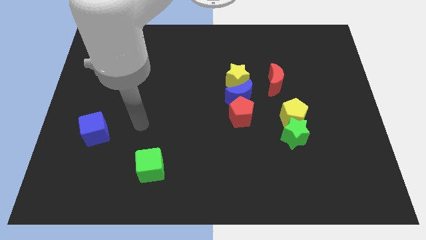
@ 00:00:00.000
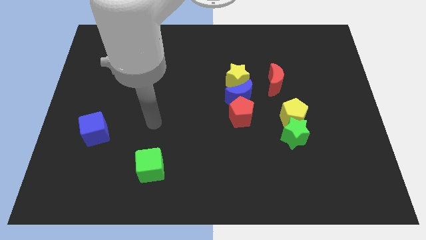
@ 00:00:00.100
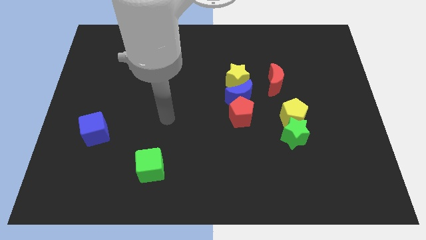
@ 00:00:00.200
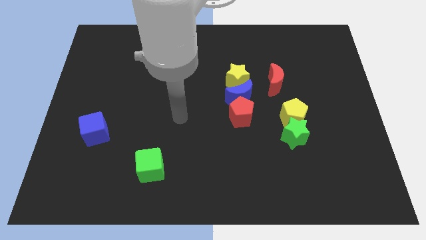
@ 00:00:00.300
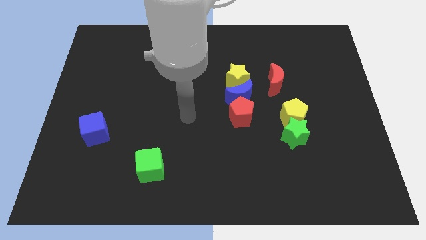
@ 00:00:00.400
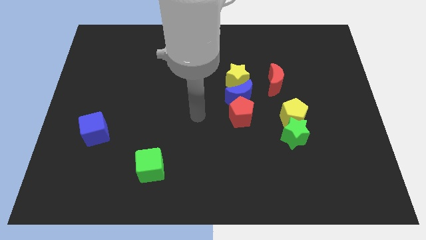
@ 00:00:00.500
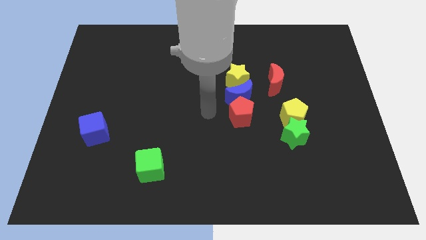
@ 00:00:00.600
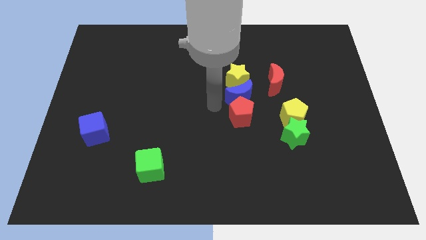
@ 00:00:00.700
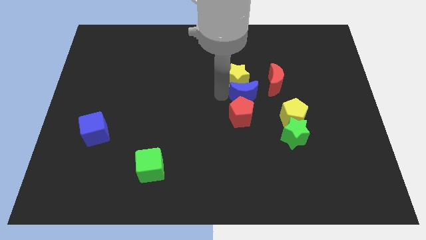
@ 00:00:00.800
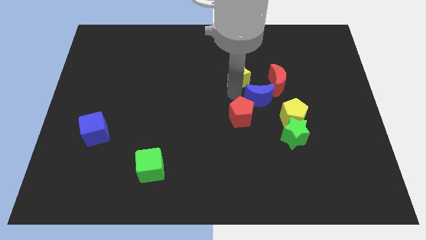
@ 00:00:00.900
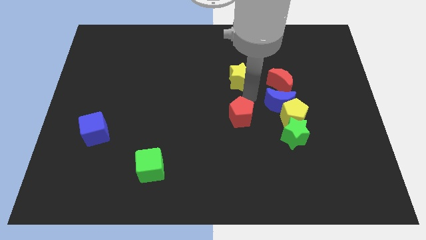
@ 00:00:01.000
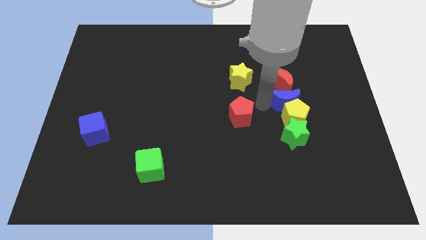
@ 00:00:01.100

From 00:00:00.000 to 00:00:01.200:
pull the red pentagon apart from the blue moon

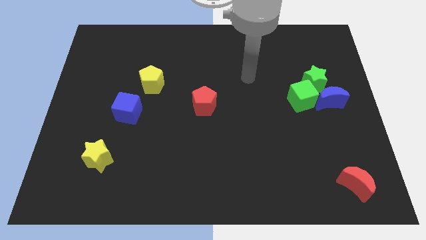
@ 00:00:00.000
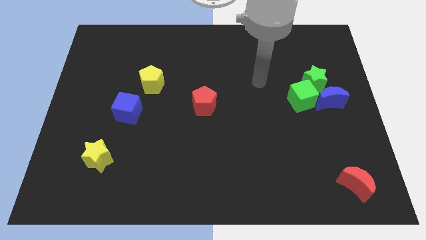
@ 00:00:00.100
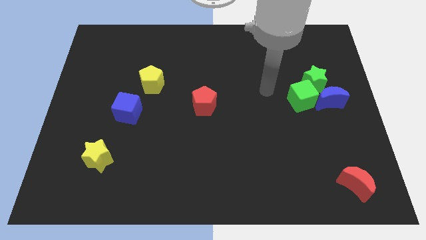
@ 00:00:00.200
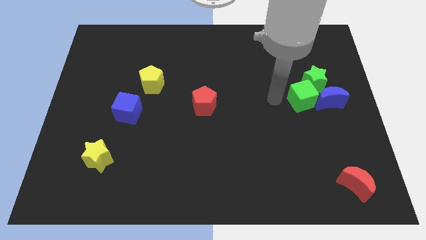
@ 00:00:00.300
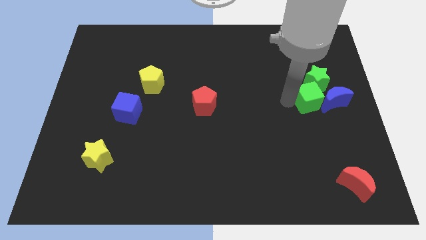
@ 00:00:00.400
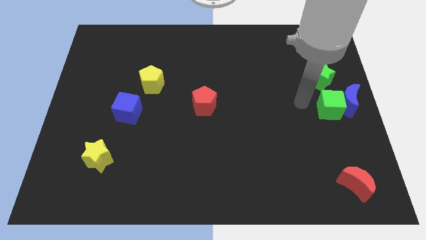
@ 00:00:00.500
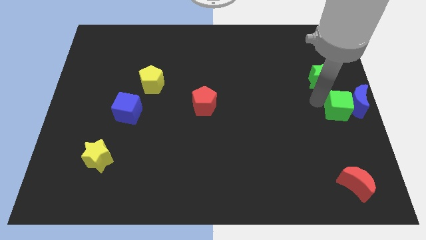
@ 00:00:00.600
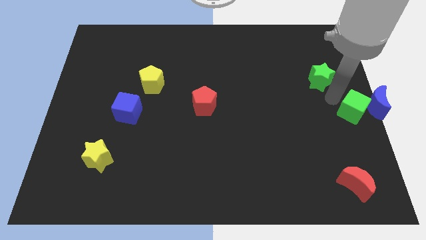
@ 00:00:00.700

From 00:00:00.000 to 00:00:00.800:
move the green star away from the green cube and blue moon

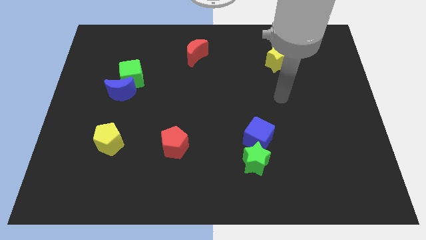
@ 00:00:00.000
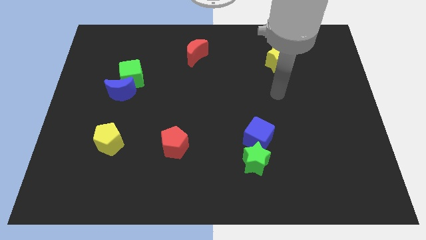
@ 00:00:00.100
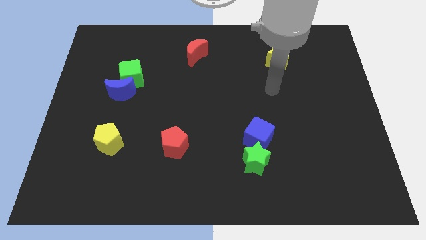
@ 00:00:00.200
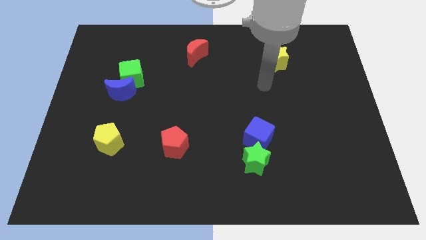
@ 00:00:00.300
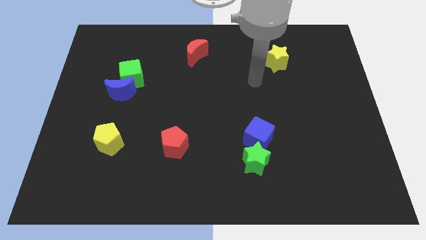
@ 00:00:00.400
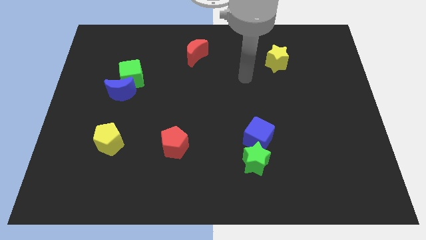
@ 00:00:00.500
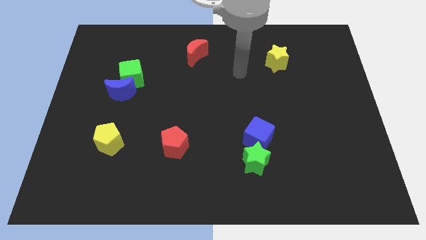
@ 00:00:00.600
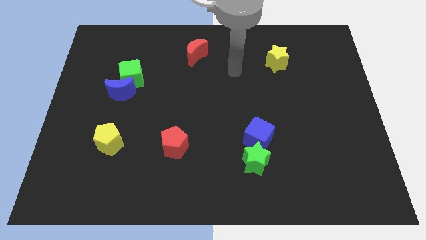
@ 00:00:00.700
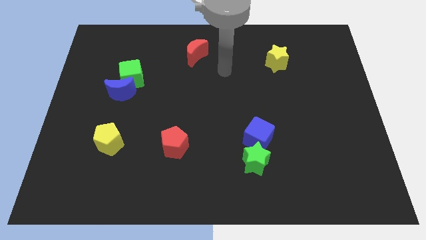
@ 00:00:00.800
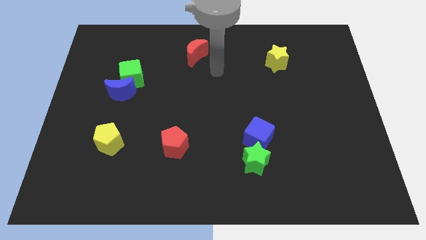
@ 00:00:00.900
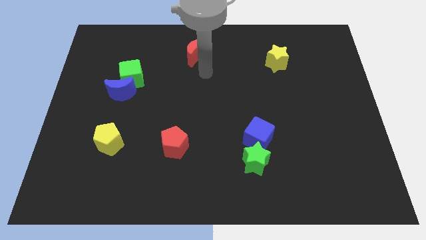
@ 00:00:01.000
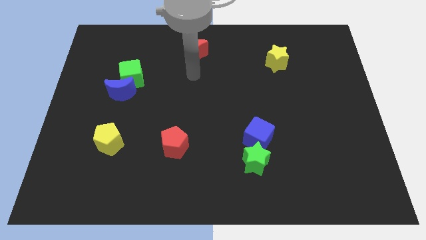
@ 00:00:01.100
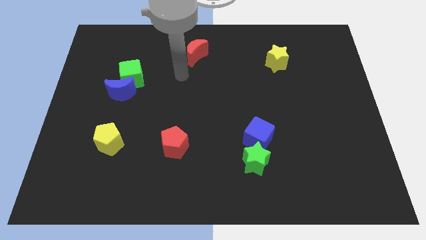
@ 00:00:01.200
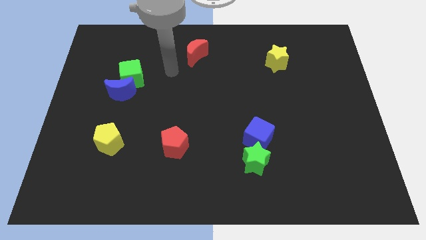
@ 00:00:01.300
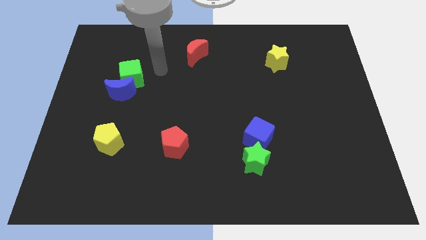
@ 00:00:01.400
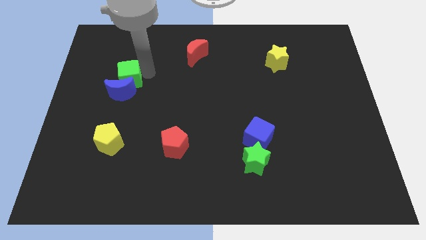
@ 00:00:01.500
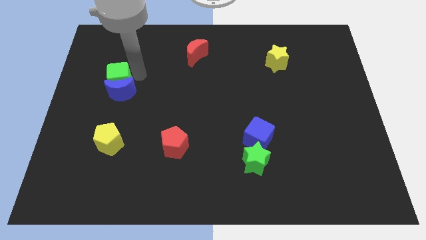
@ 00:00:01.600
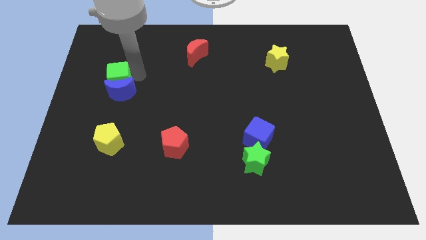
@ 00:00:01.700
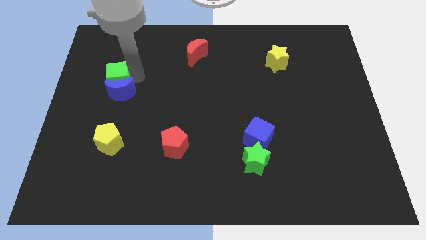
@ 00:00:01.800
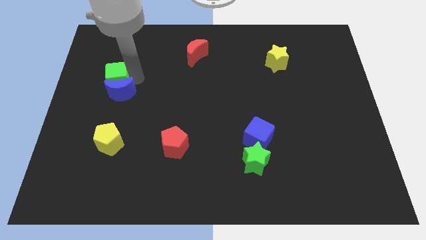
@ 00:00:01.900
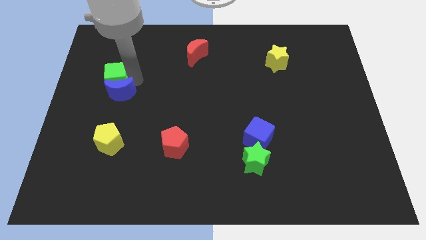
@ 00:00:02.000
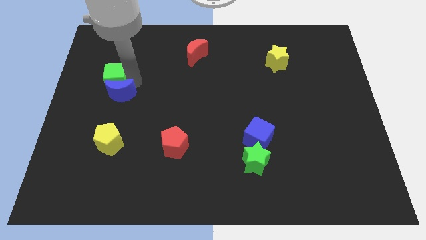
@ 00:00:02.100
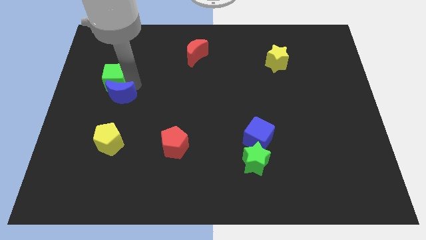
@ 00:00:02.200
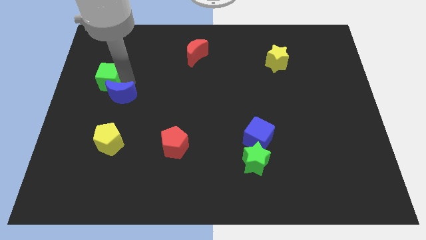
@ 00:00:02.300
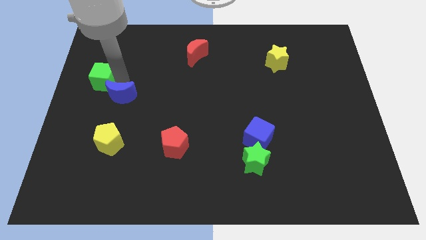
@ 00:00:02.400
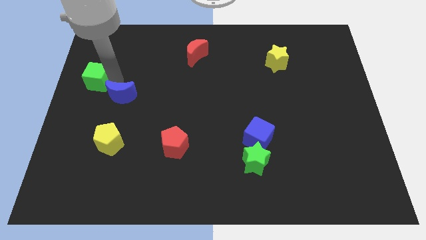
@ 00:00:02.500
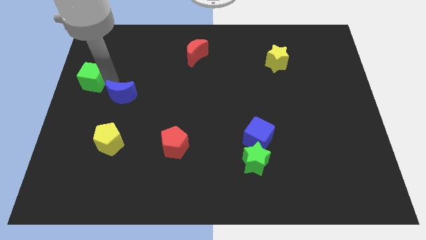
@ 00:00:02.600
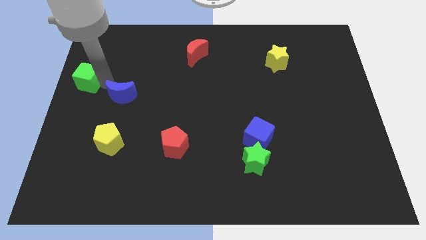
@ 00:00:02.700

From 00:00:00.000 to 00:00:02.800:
move the blue moon away from the green cube

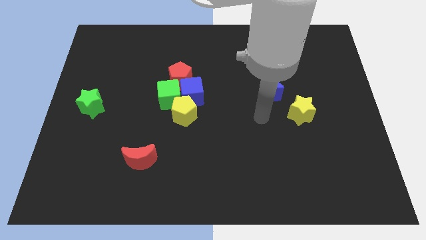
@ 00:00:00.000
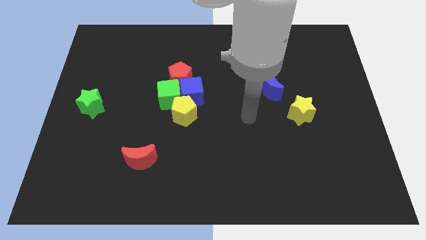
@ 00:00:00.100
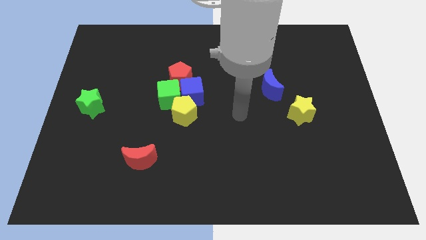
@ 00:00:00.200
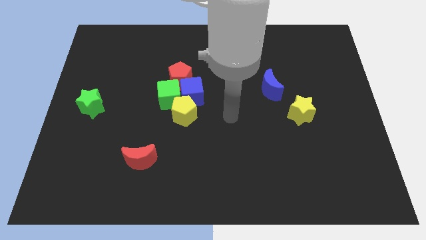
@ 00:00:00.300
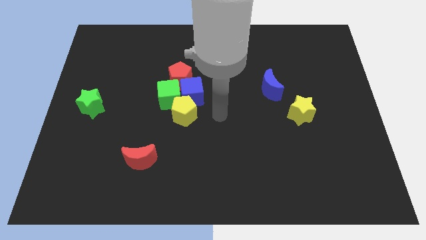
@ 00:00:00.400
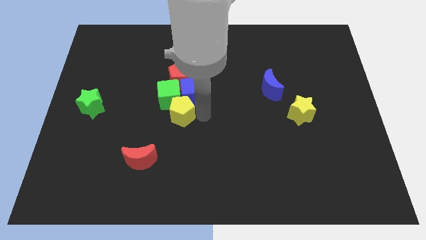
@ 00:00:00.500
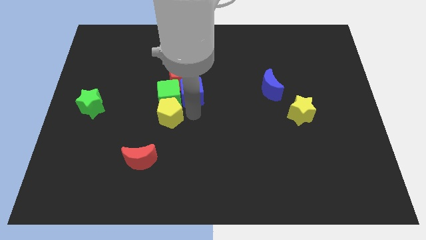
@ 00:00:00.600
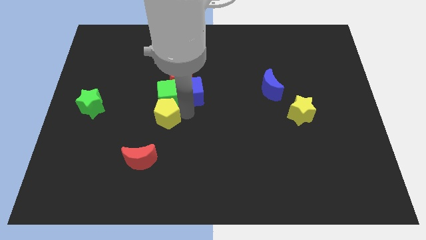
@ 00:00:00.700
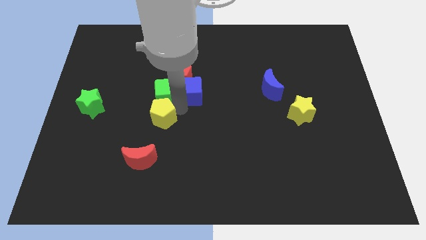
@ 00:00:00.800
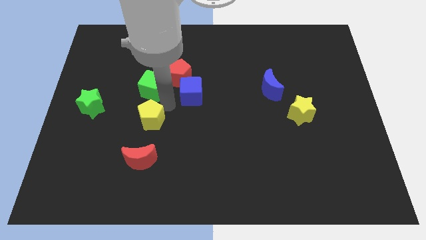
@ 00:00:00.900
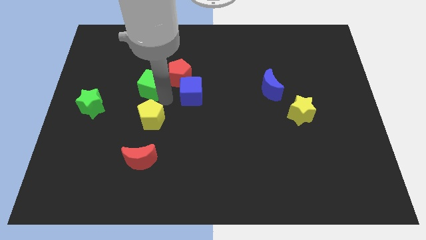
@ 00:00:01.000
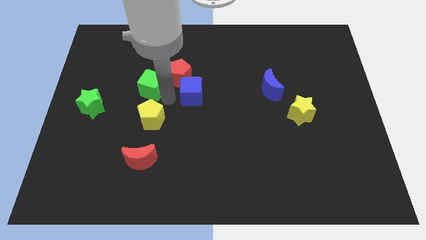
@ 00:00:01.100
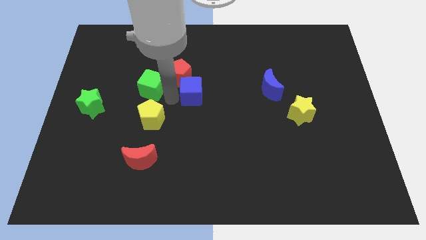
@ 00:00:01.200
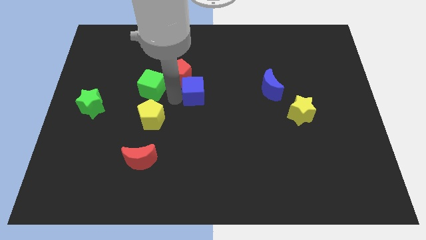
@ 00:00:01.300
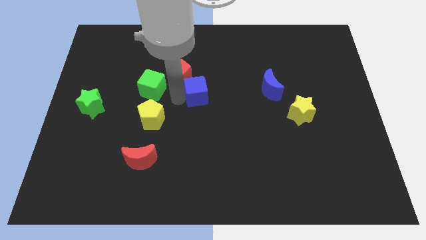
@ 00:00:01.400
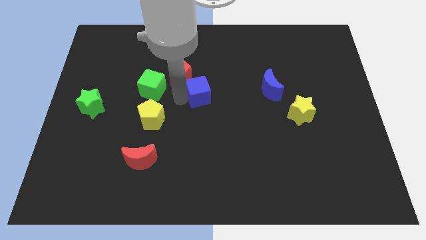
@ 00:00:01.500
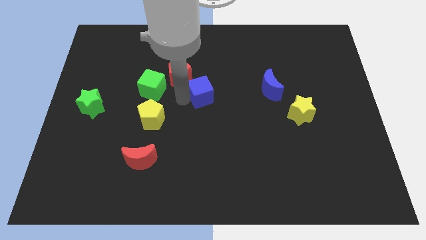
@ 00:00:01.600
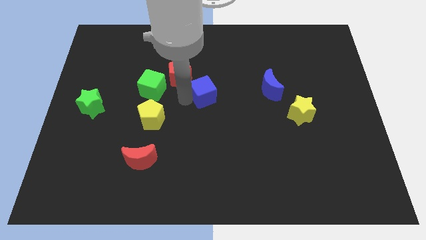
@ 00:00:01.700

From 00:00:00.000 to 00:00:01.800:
move the blue cube away from the green cube, yellow pentagon, and red pentagon

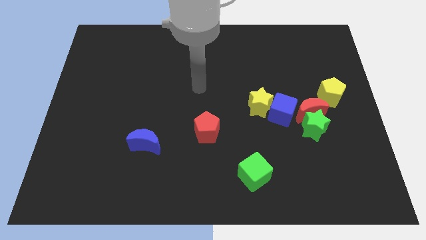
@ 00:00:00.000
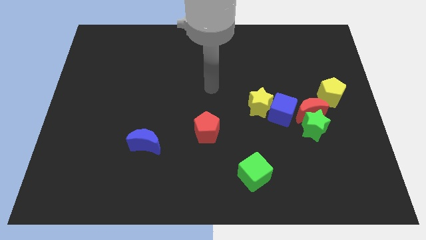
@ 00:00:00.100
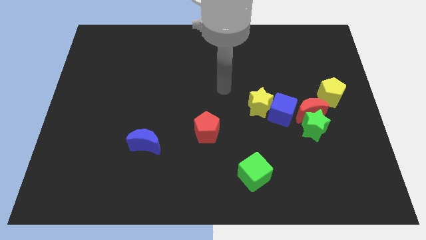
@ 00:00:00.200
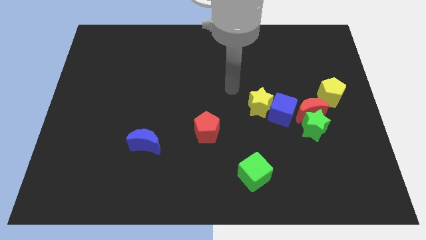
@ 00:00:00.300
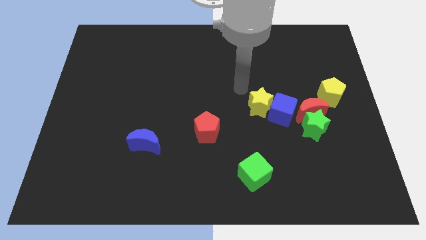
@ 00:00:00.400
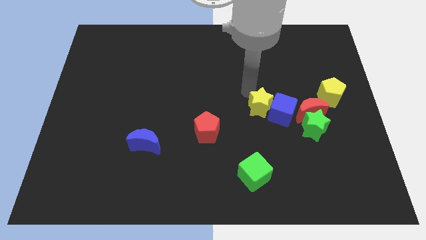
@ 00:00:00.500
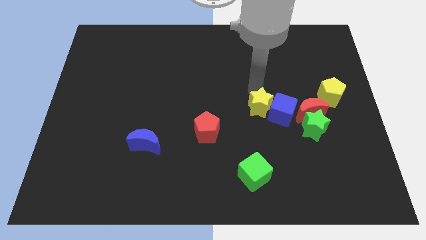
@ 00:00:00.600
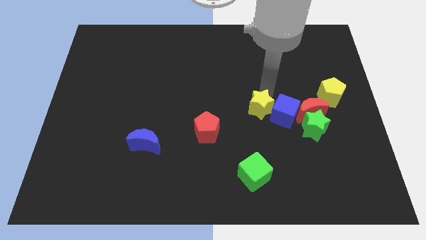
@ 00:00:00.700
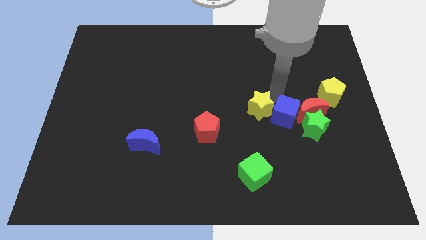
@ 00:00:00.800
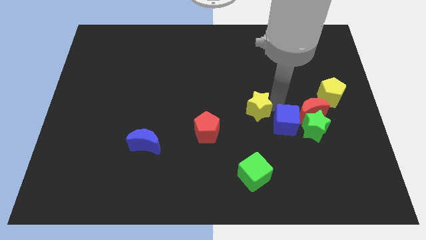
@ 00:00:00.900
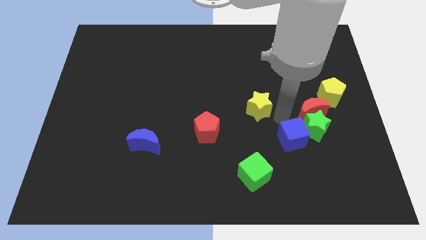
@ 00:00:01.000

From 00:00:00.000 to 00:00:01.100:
pull the yellow star apart from the blue cube

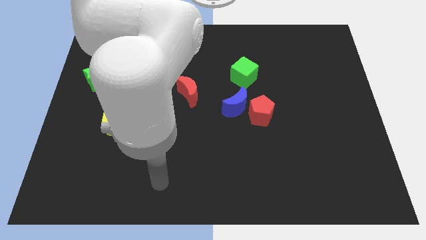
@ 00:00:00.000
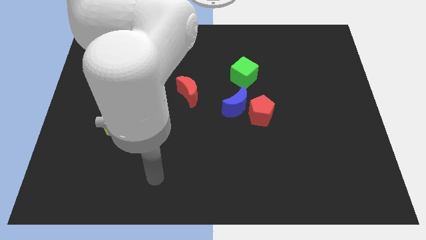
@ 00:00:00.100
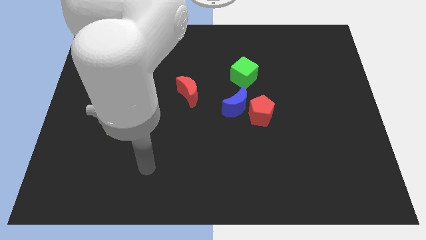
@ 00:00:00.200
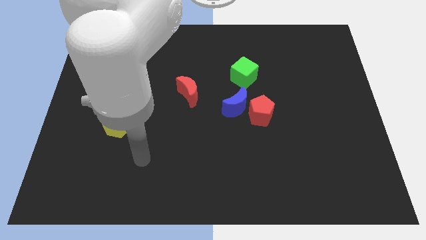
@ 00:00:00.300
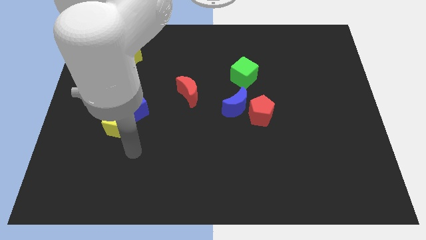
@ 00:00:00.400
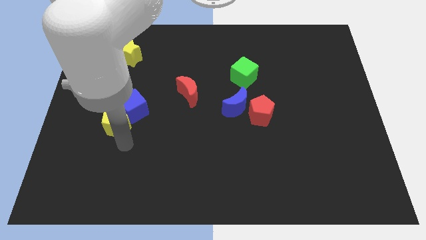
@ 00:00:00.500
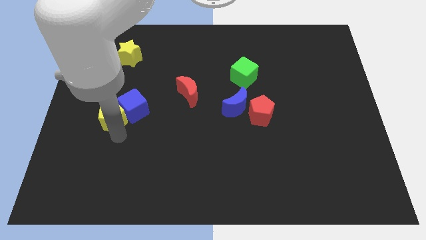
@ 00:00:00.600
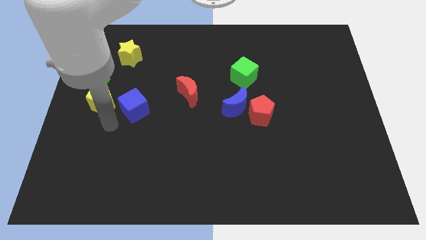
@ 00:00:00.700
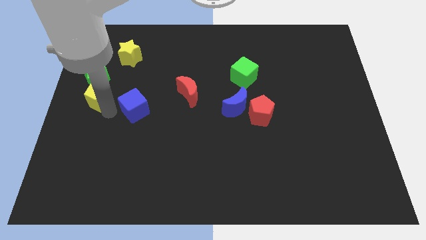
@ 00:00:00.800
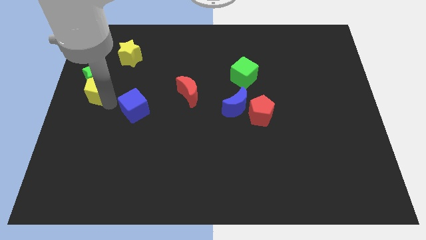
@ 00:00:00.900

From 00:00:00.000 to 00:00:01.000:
pull the blue cube apart from the yellow pentagon

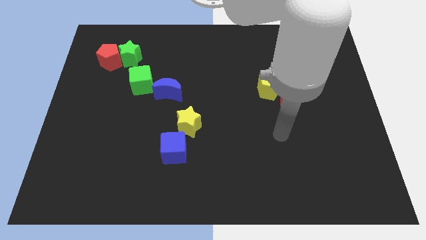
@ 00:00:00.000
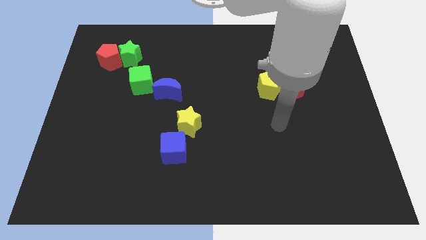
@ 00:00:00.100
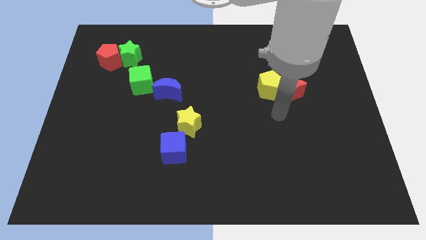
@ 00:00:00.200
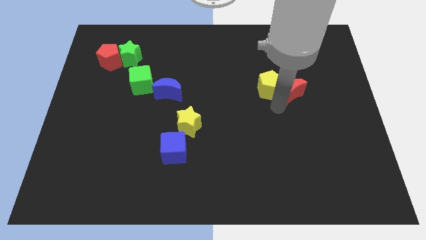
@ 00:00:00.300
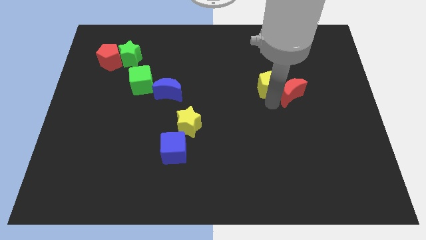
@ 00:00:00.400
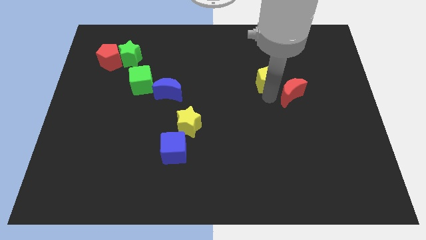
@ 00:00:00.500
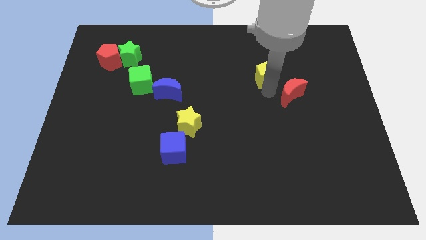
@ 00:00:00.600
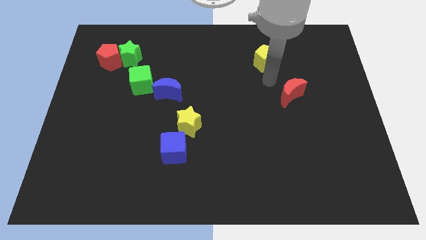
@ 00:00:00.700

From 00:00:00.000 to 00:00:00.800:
move the red moon away from the yellow pentagon
